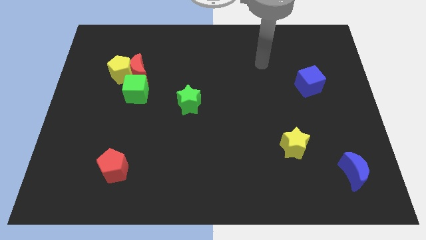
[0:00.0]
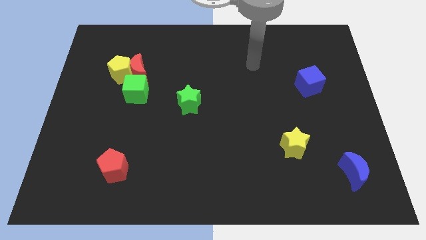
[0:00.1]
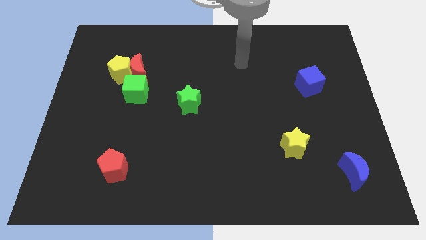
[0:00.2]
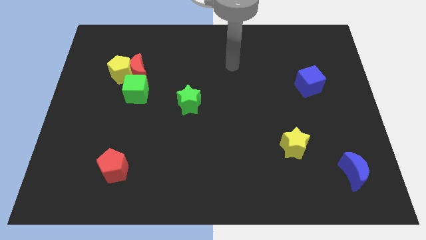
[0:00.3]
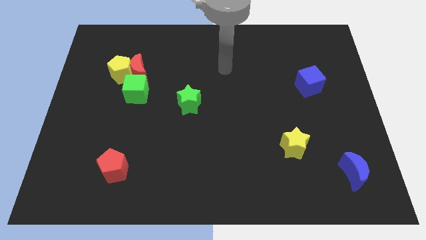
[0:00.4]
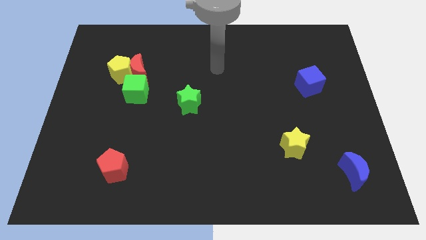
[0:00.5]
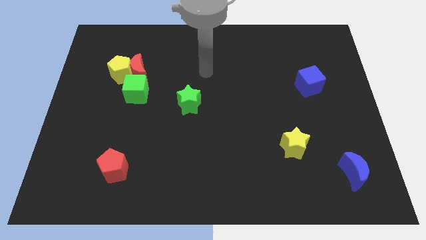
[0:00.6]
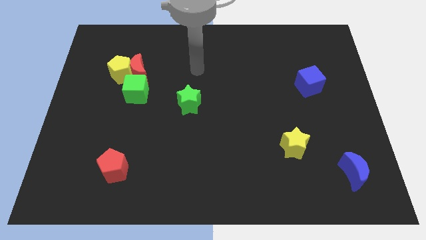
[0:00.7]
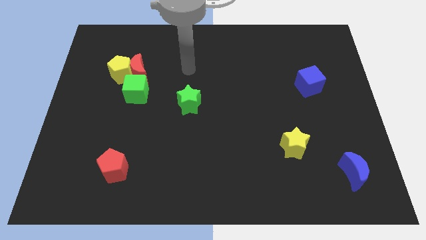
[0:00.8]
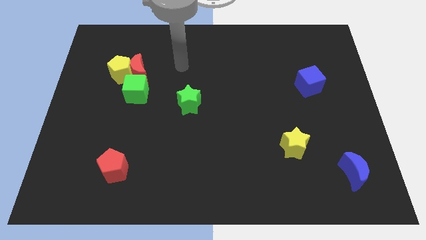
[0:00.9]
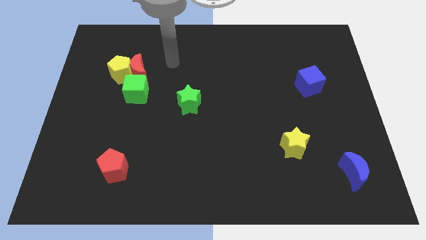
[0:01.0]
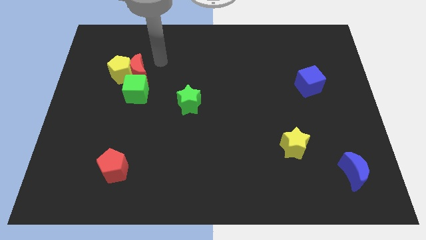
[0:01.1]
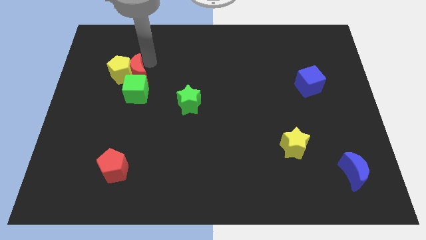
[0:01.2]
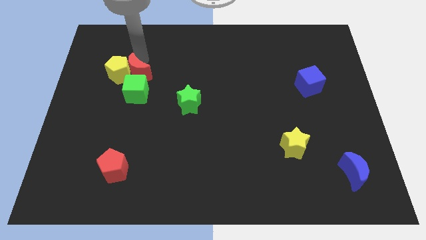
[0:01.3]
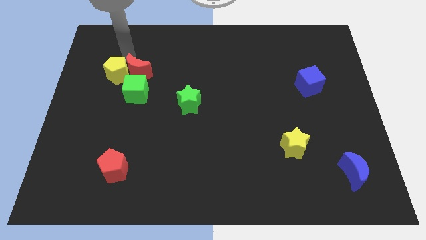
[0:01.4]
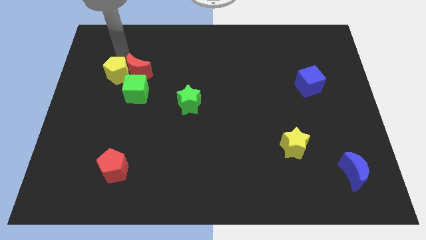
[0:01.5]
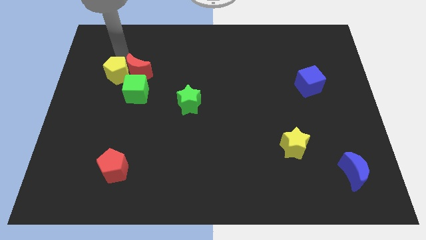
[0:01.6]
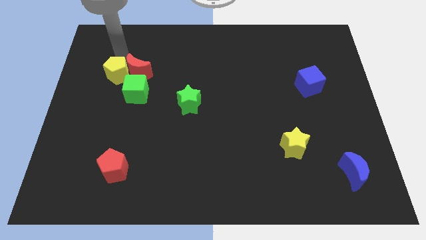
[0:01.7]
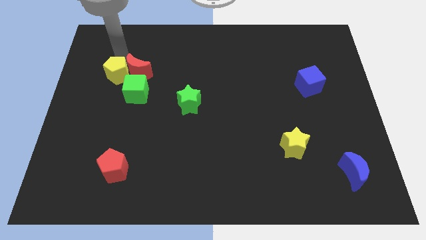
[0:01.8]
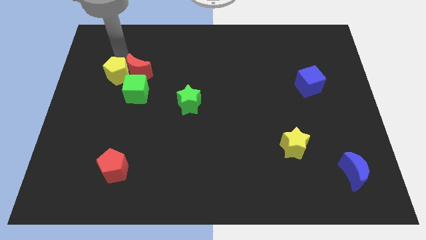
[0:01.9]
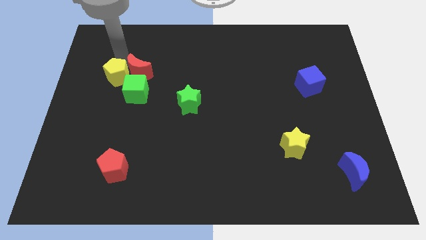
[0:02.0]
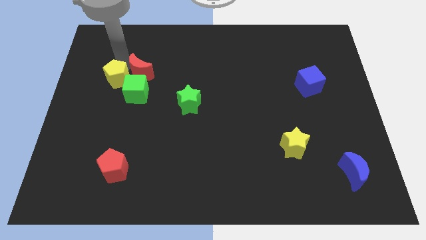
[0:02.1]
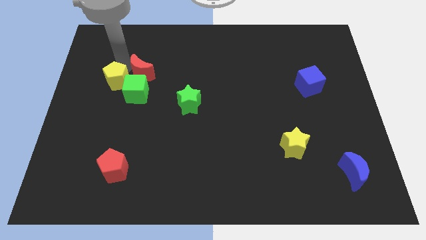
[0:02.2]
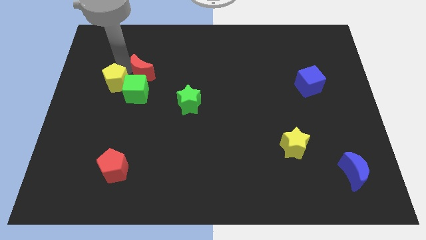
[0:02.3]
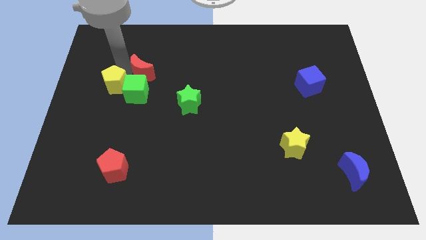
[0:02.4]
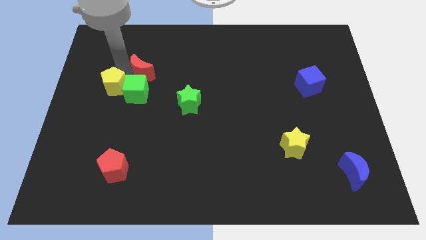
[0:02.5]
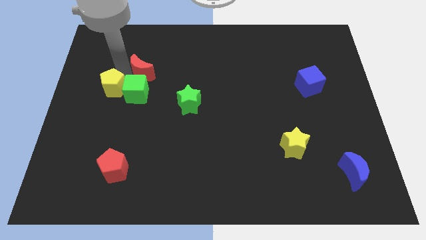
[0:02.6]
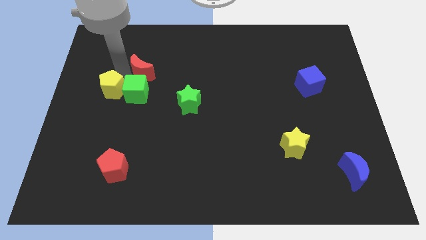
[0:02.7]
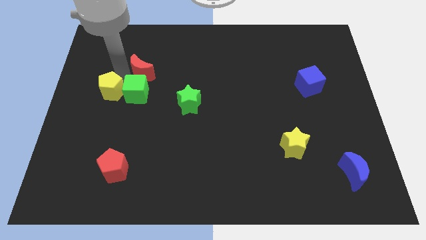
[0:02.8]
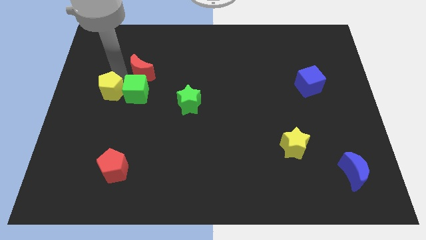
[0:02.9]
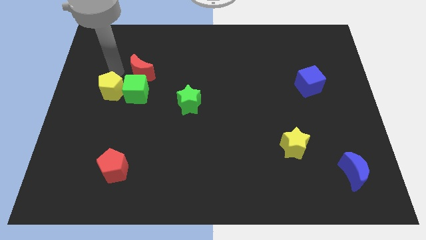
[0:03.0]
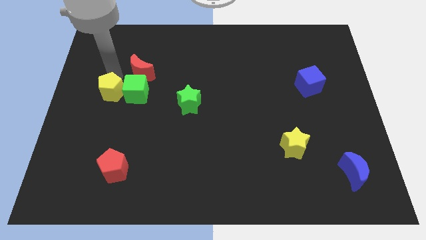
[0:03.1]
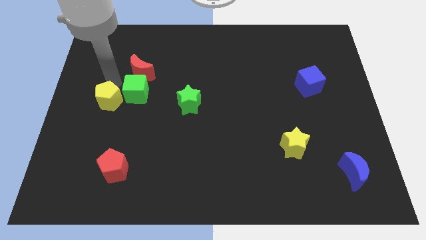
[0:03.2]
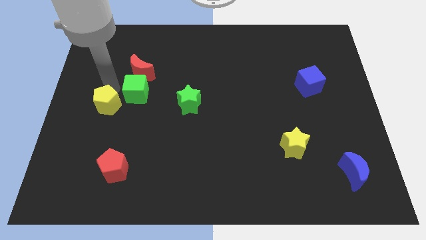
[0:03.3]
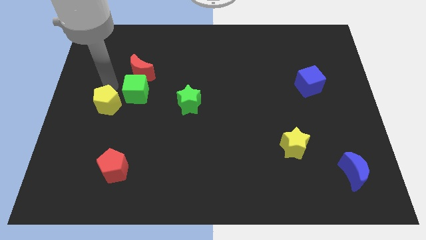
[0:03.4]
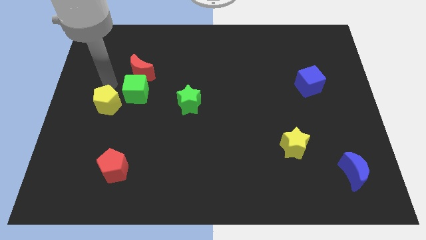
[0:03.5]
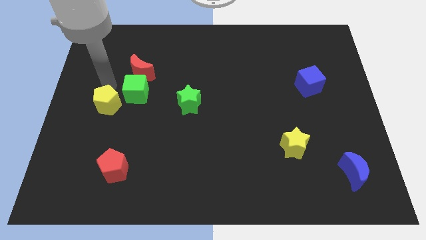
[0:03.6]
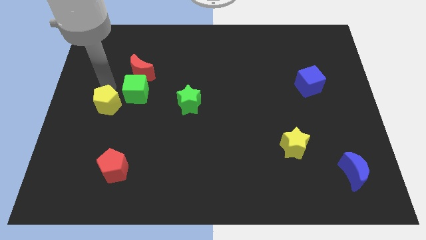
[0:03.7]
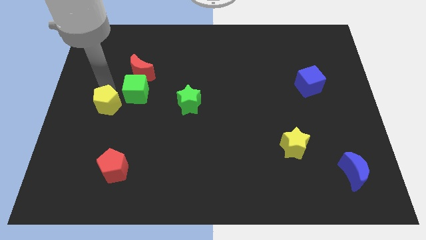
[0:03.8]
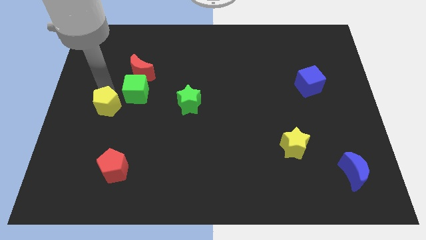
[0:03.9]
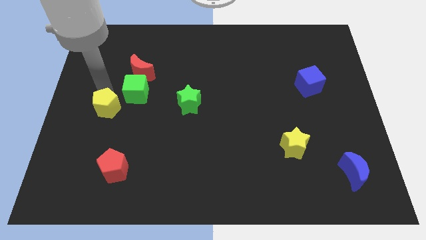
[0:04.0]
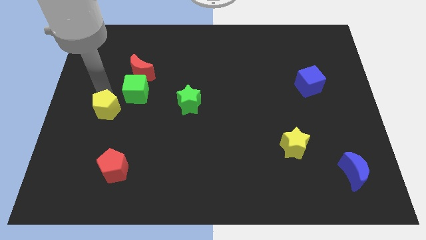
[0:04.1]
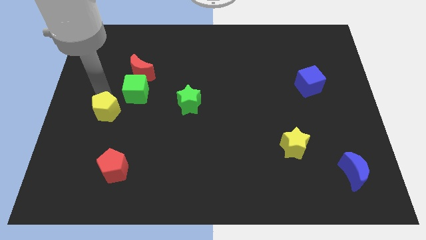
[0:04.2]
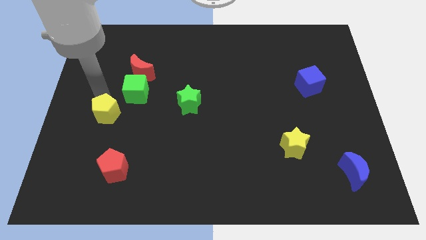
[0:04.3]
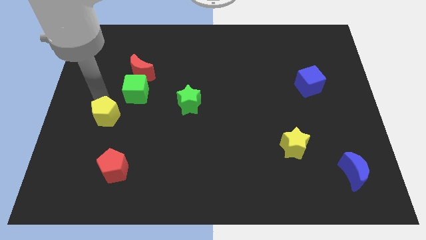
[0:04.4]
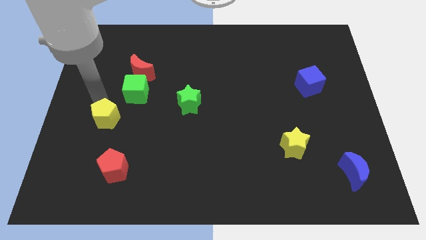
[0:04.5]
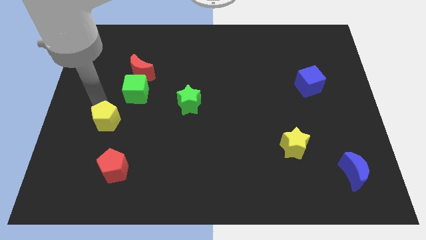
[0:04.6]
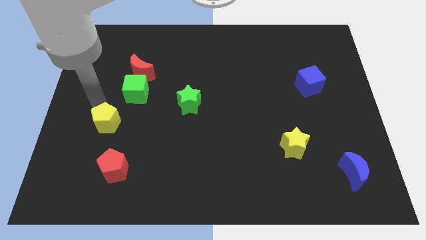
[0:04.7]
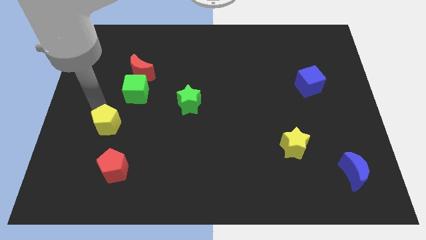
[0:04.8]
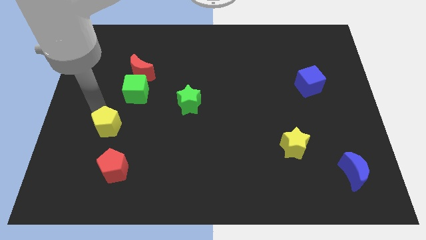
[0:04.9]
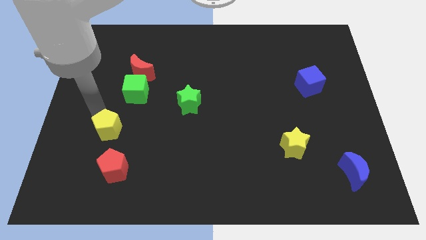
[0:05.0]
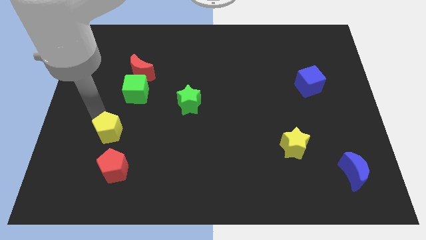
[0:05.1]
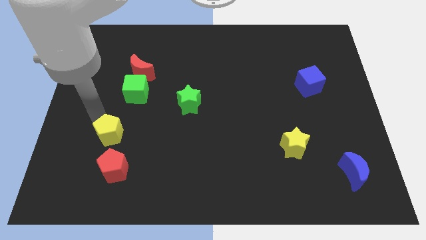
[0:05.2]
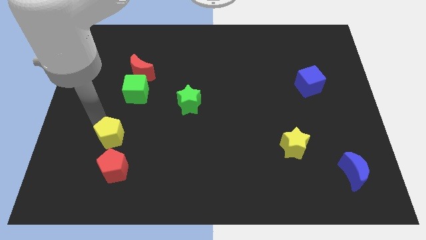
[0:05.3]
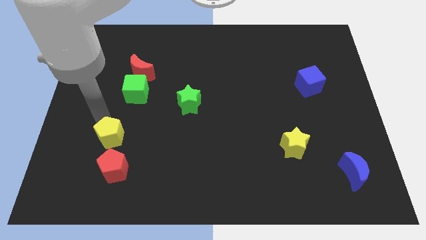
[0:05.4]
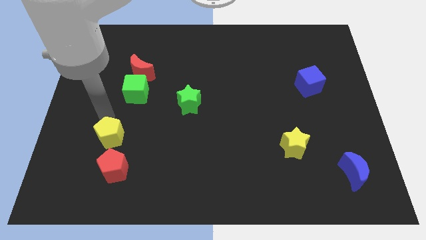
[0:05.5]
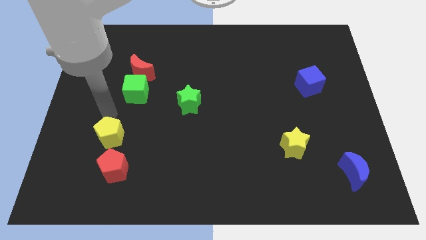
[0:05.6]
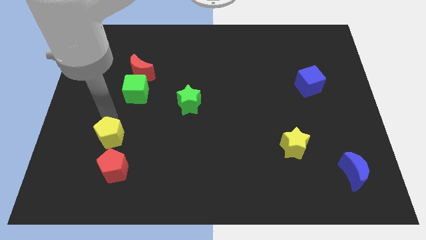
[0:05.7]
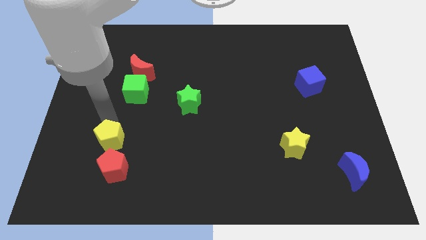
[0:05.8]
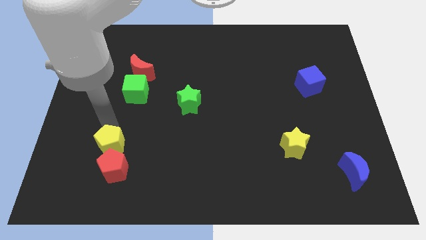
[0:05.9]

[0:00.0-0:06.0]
put the yellow pentagon next to the red pentagon

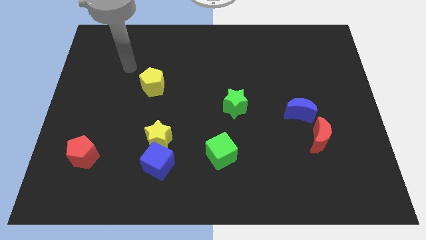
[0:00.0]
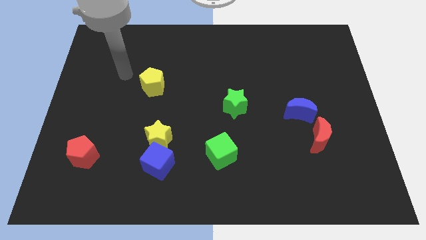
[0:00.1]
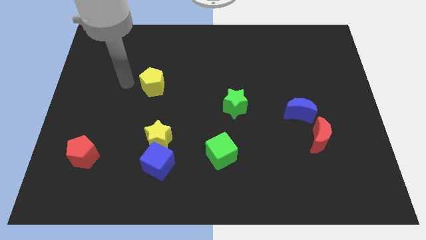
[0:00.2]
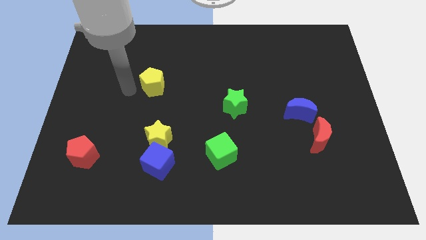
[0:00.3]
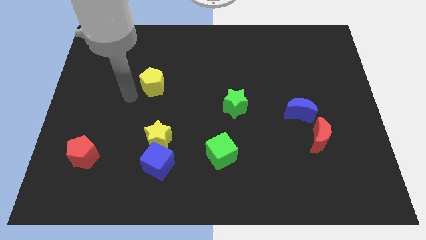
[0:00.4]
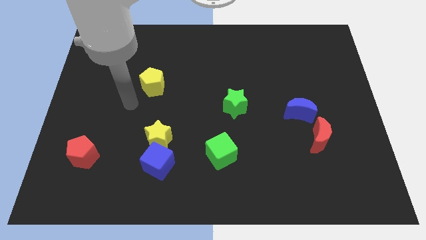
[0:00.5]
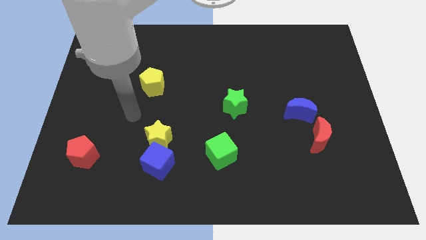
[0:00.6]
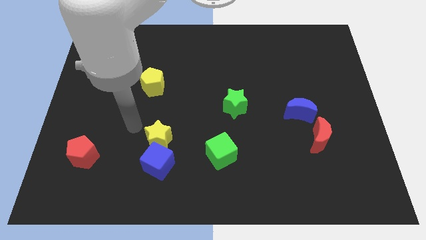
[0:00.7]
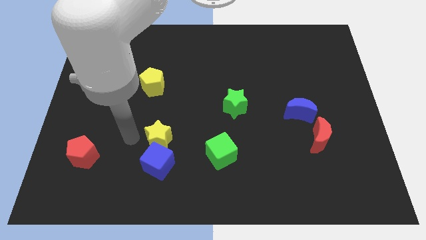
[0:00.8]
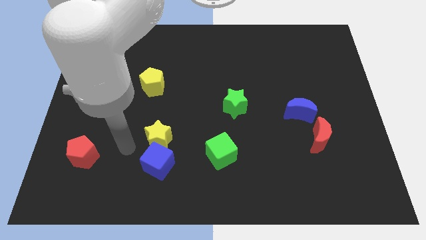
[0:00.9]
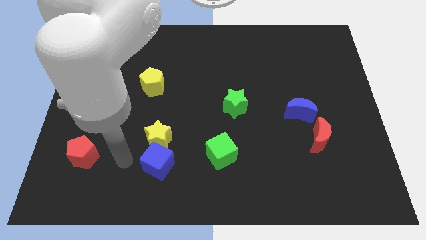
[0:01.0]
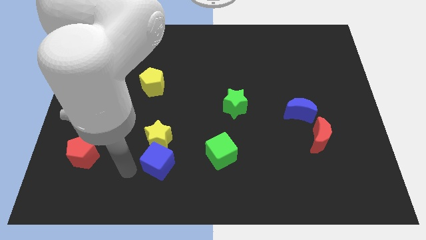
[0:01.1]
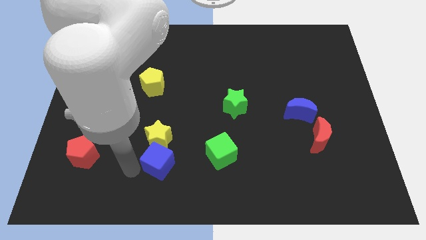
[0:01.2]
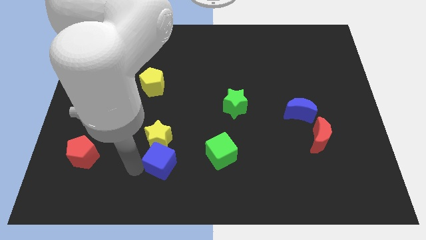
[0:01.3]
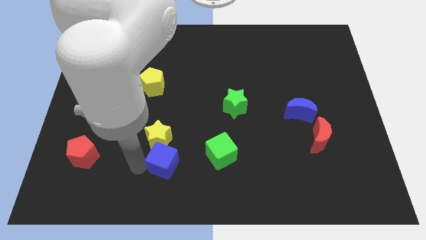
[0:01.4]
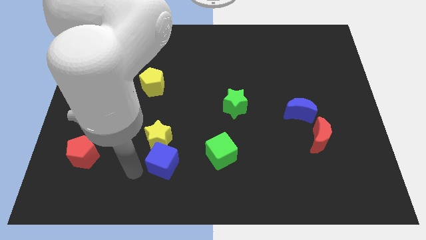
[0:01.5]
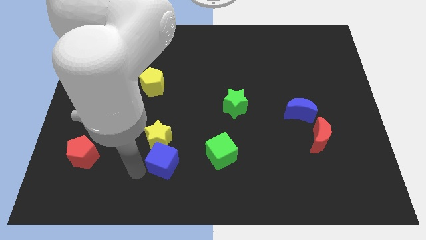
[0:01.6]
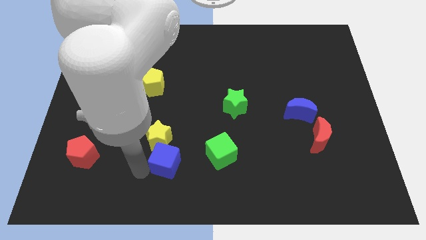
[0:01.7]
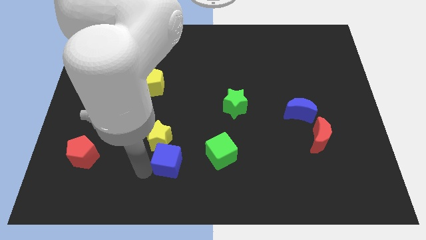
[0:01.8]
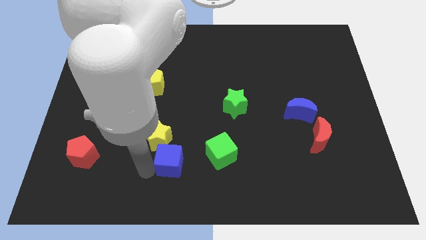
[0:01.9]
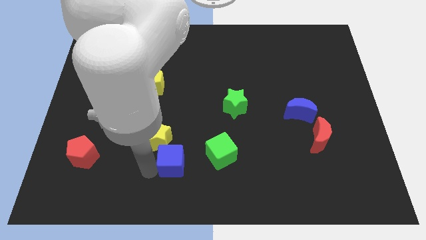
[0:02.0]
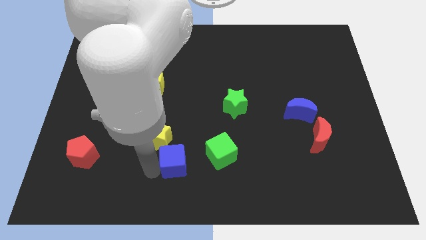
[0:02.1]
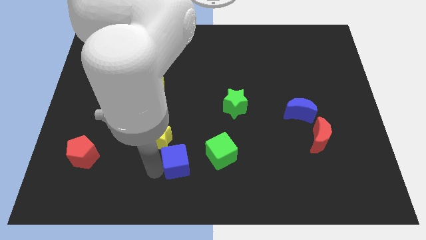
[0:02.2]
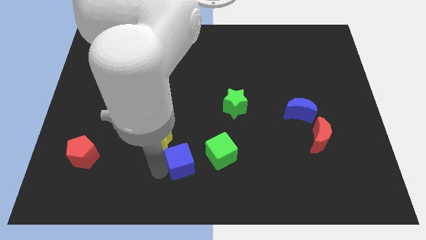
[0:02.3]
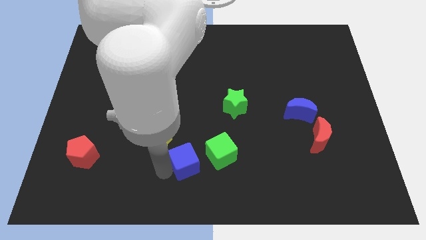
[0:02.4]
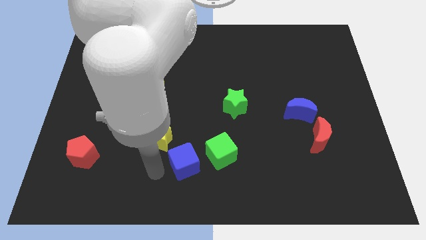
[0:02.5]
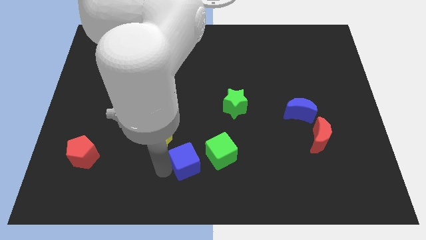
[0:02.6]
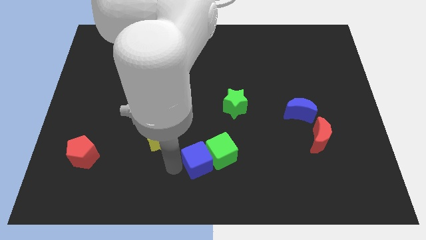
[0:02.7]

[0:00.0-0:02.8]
push the blue cube close to the green cube
